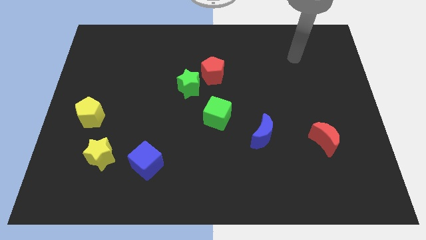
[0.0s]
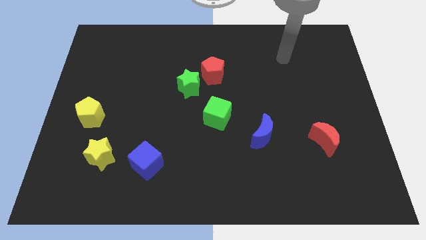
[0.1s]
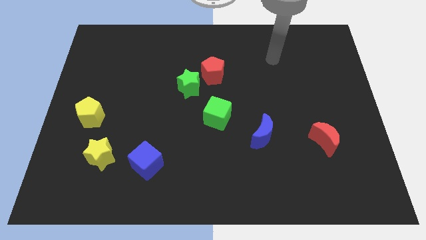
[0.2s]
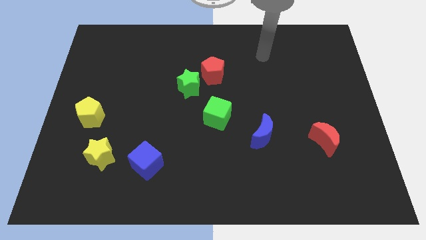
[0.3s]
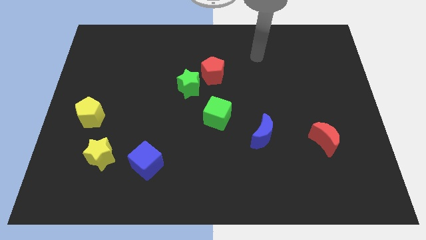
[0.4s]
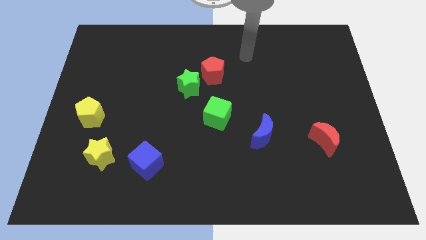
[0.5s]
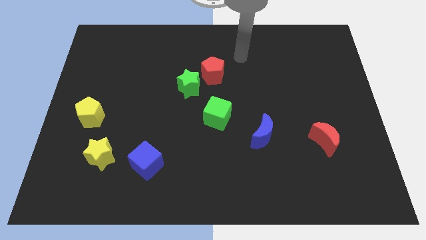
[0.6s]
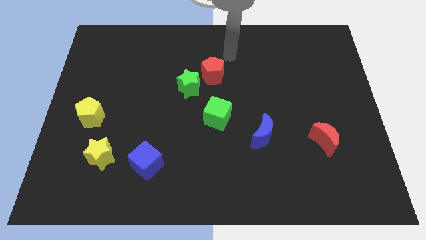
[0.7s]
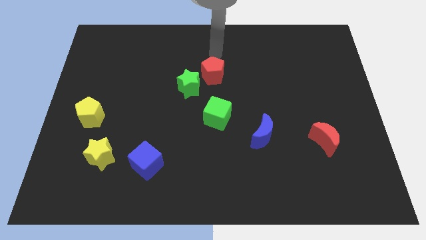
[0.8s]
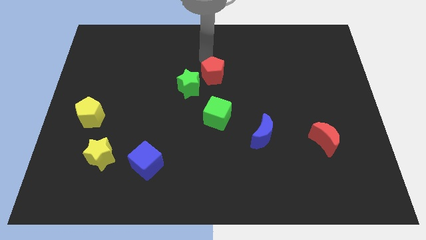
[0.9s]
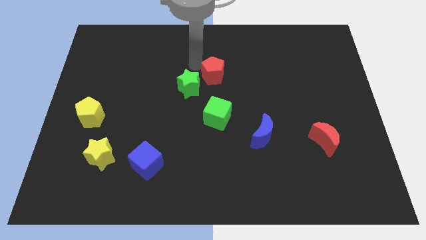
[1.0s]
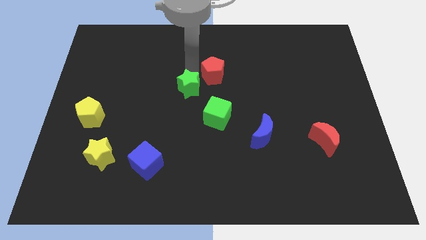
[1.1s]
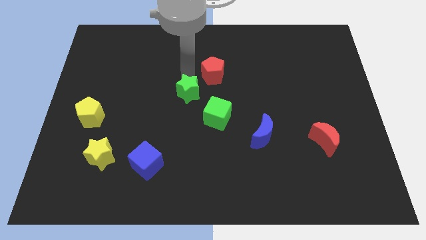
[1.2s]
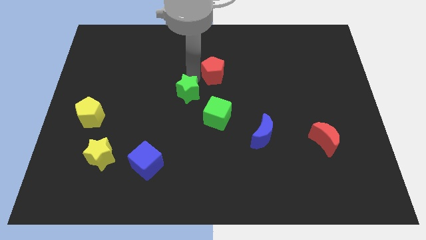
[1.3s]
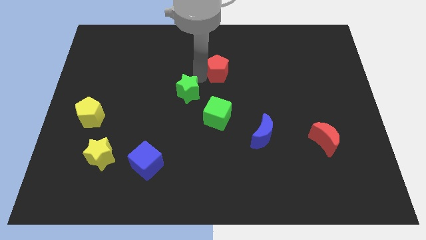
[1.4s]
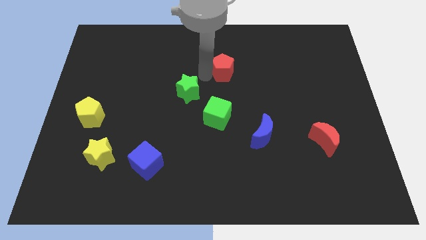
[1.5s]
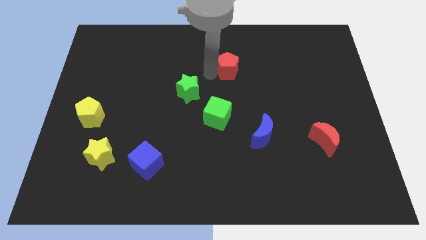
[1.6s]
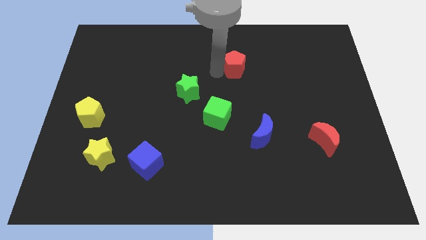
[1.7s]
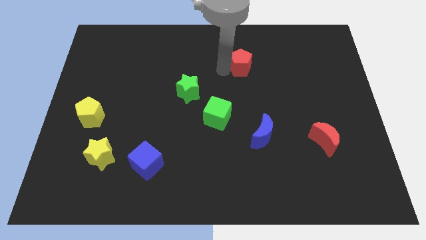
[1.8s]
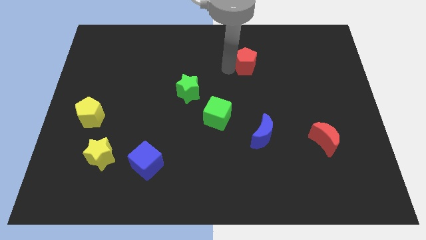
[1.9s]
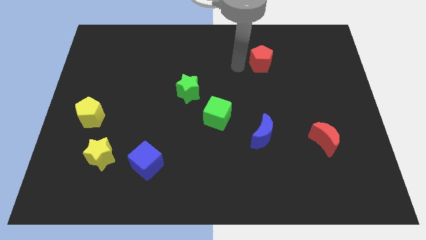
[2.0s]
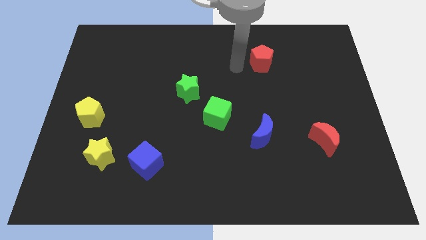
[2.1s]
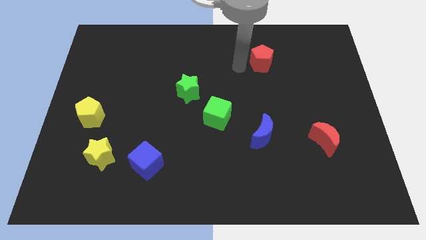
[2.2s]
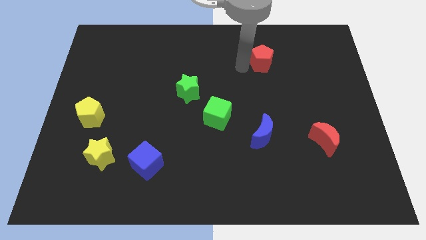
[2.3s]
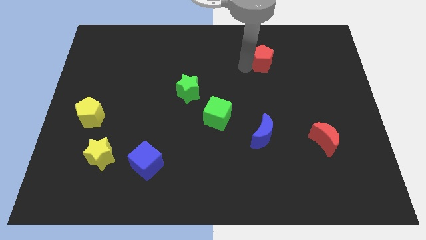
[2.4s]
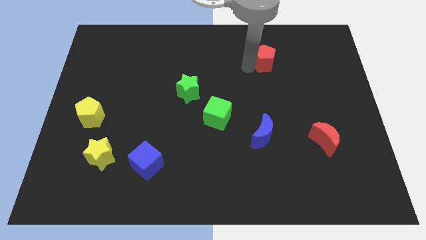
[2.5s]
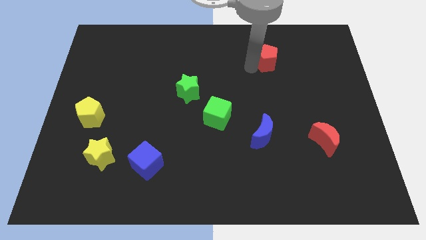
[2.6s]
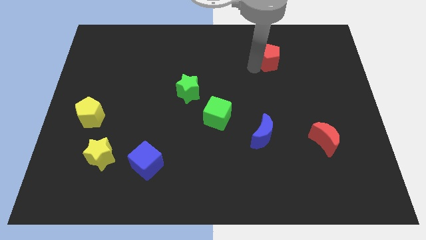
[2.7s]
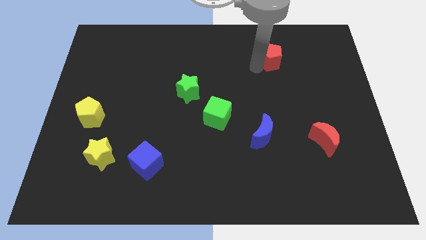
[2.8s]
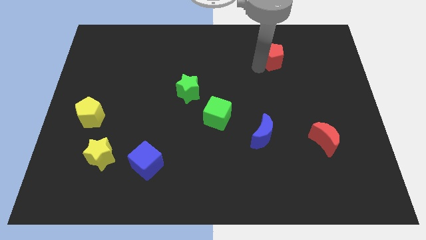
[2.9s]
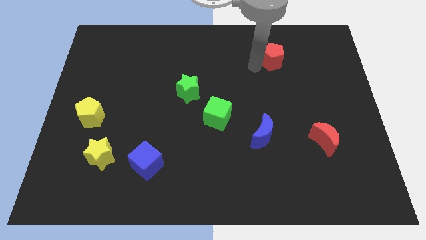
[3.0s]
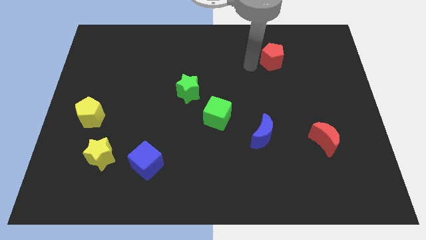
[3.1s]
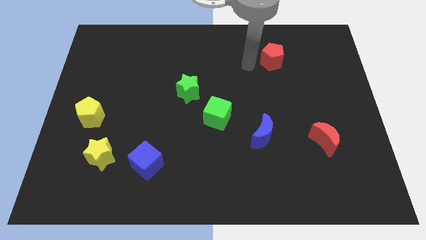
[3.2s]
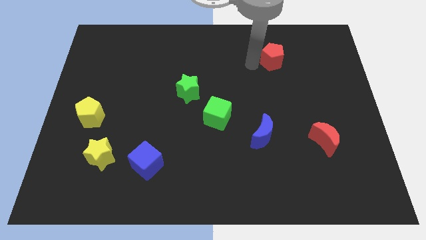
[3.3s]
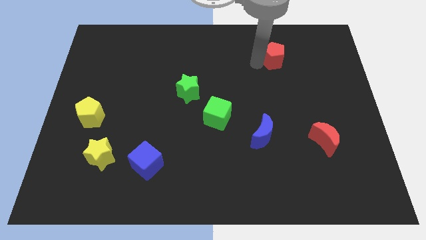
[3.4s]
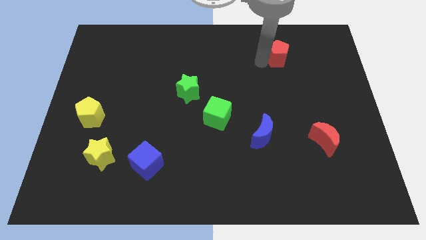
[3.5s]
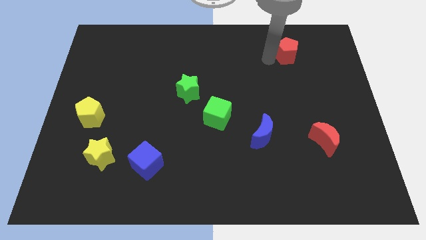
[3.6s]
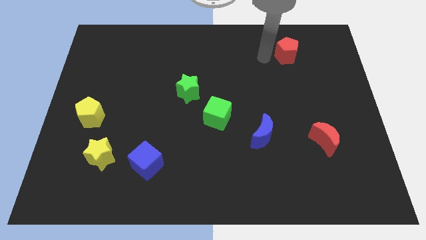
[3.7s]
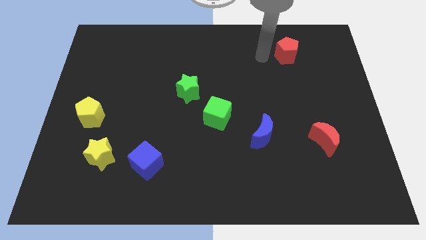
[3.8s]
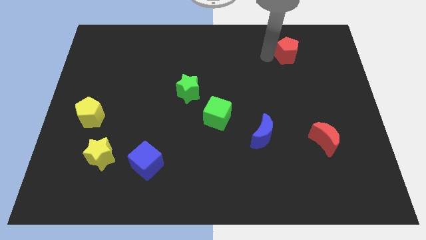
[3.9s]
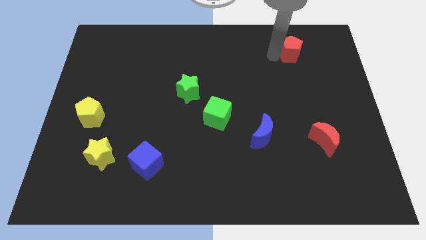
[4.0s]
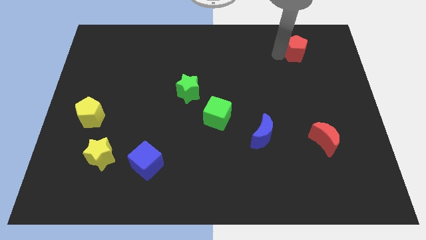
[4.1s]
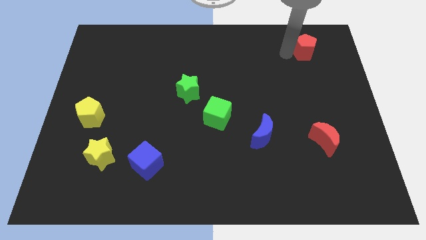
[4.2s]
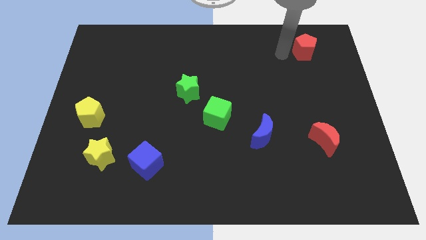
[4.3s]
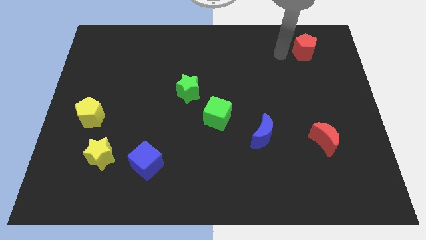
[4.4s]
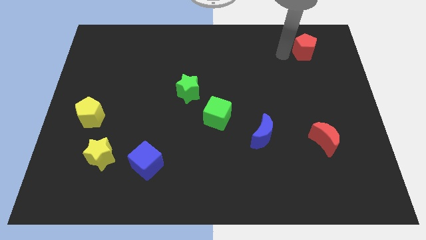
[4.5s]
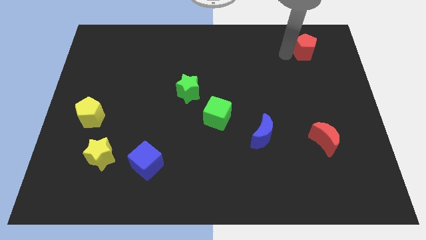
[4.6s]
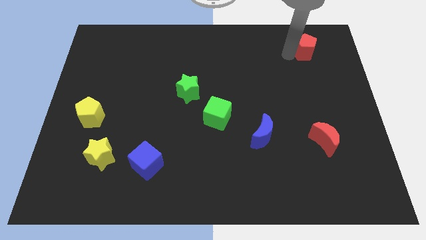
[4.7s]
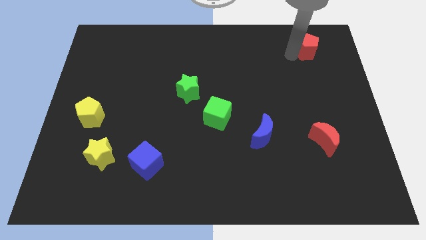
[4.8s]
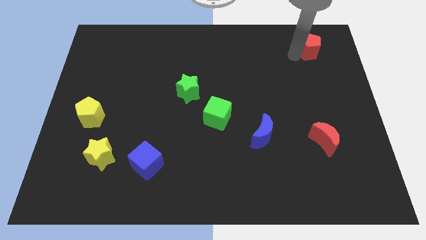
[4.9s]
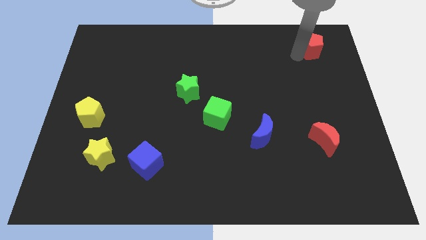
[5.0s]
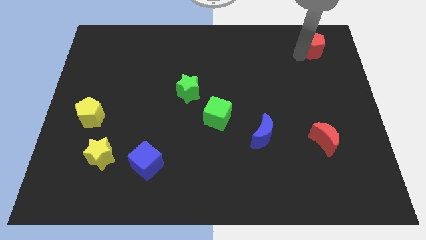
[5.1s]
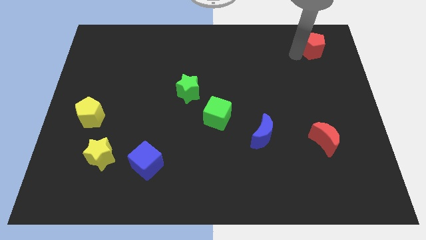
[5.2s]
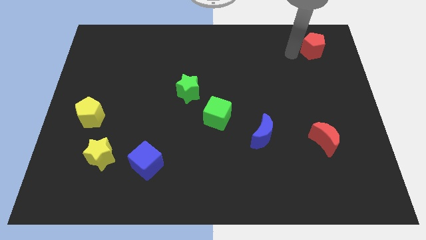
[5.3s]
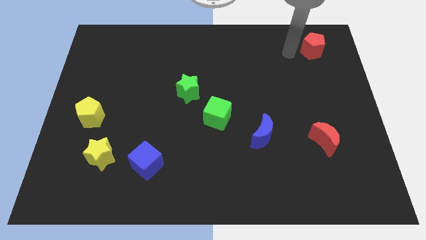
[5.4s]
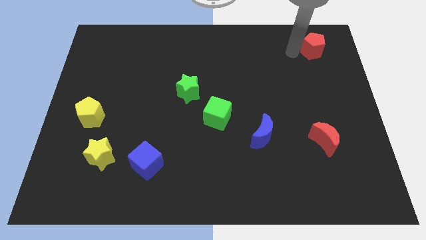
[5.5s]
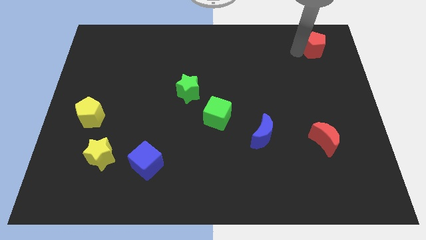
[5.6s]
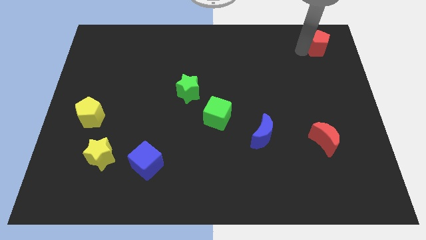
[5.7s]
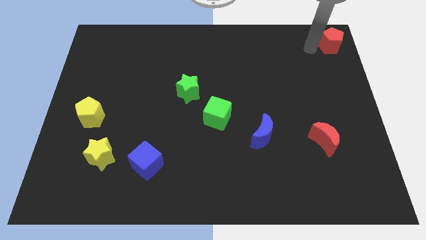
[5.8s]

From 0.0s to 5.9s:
push the red pentagon to the top right
